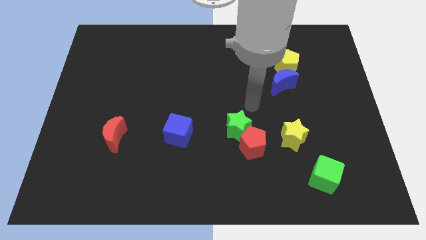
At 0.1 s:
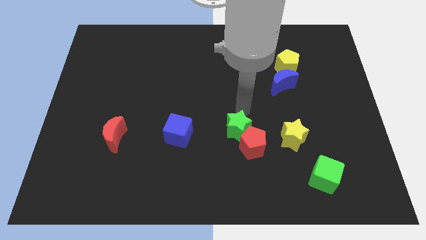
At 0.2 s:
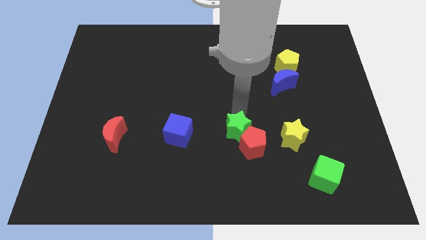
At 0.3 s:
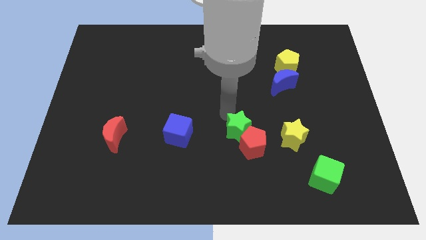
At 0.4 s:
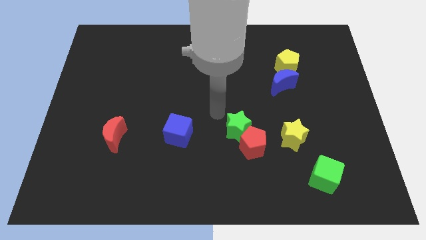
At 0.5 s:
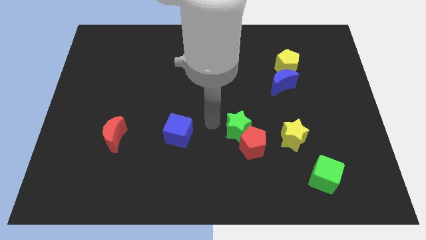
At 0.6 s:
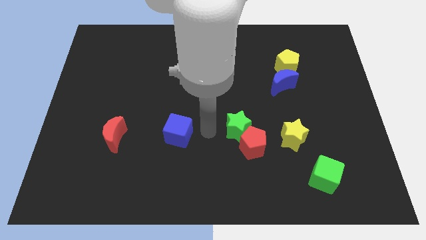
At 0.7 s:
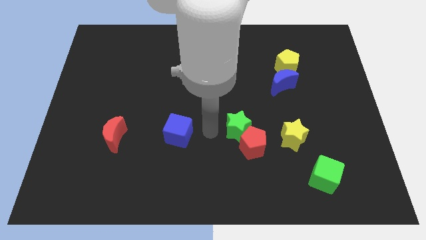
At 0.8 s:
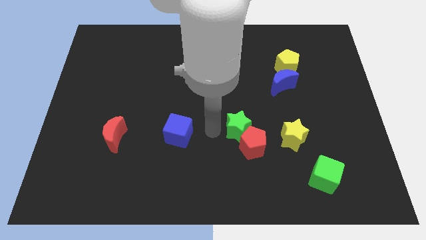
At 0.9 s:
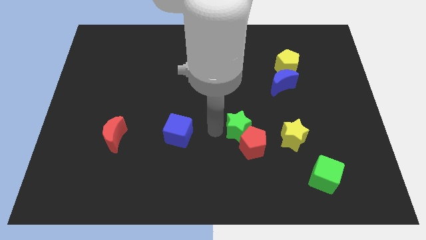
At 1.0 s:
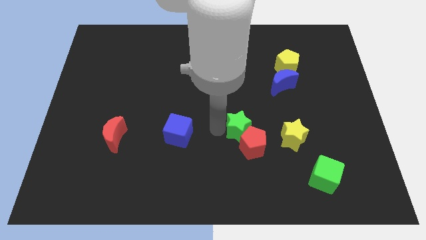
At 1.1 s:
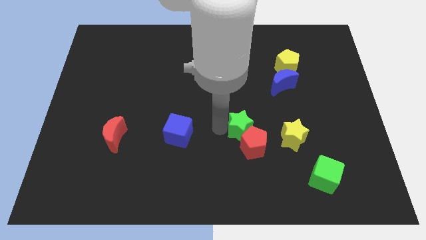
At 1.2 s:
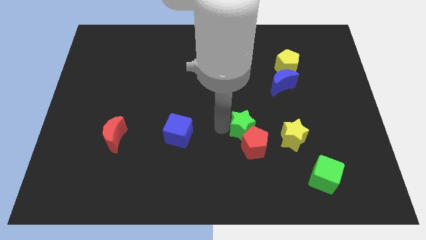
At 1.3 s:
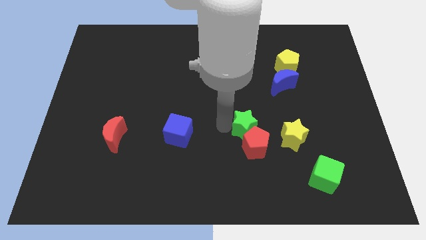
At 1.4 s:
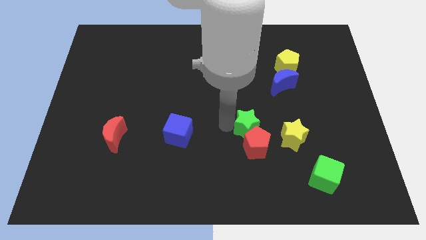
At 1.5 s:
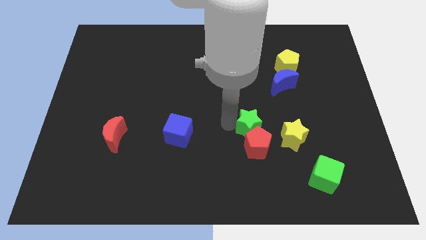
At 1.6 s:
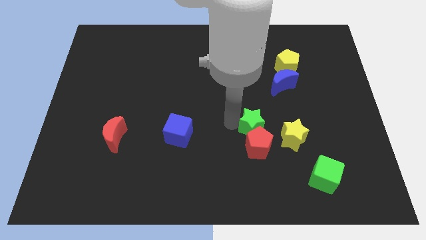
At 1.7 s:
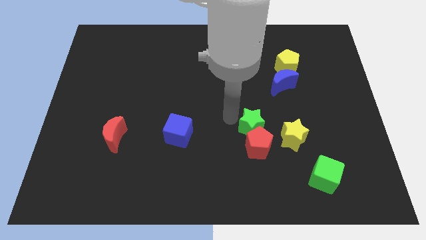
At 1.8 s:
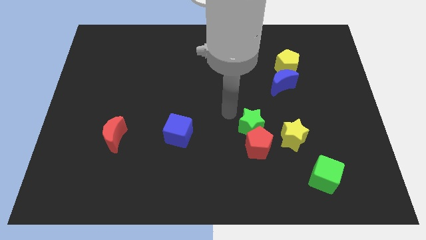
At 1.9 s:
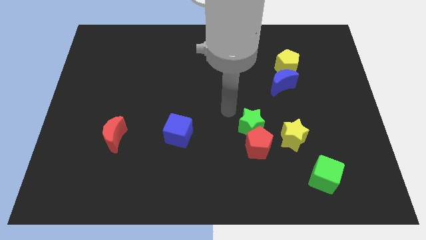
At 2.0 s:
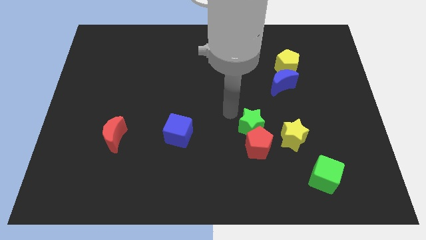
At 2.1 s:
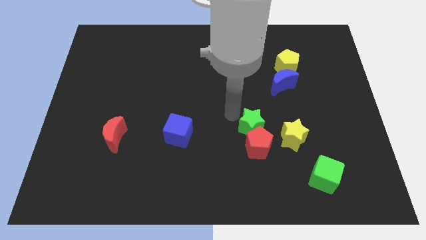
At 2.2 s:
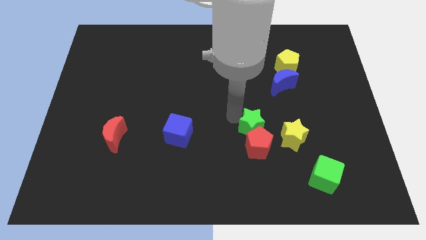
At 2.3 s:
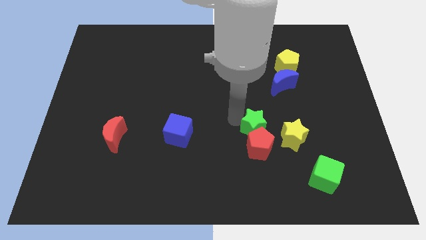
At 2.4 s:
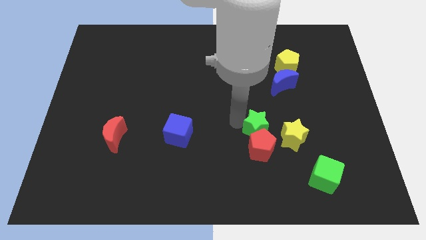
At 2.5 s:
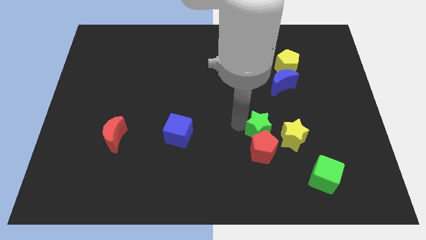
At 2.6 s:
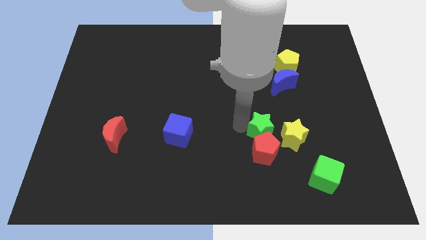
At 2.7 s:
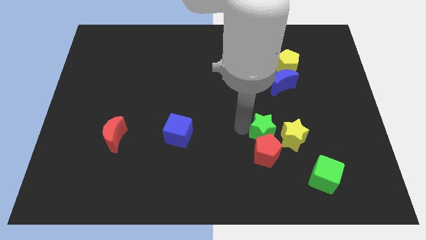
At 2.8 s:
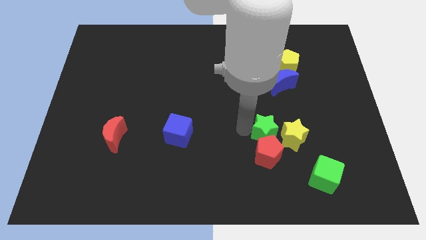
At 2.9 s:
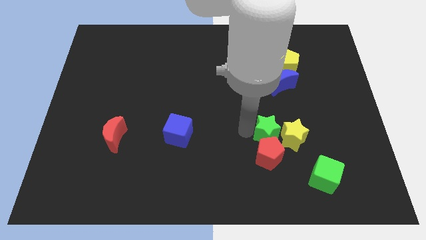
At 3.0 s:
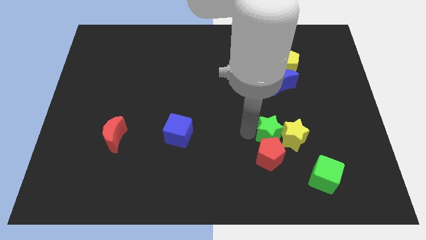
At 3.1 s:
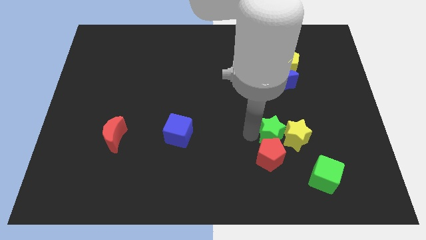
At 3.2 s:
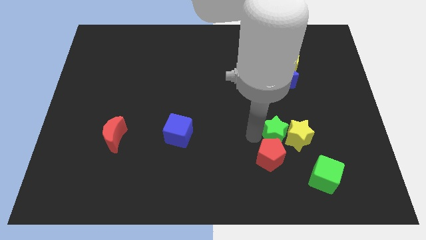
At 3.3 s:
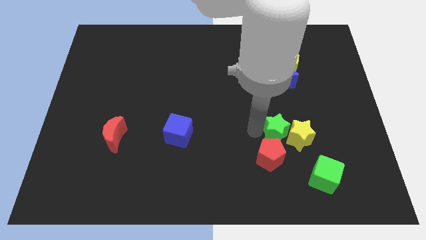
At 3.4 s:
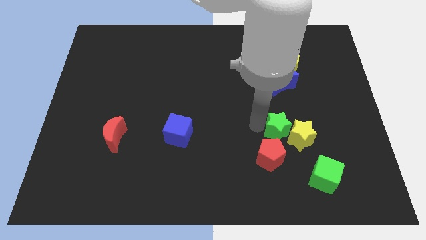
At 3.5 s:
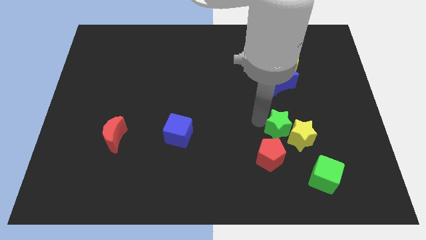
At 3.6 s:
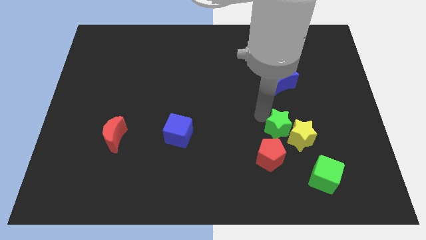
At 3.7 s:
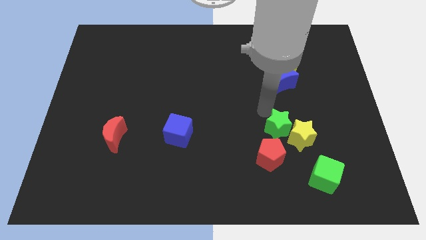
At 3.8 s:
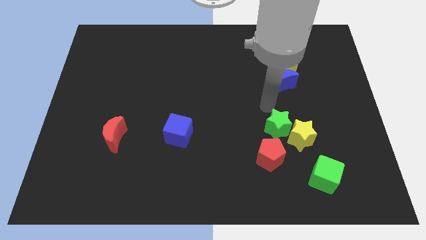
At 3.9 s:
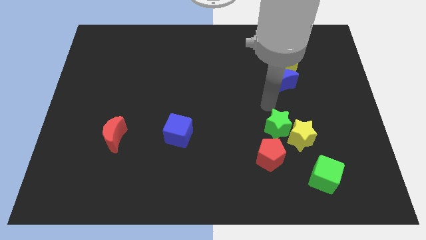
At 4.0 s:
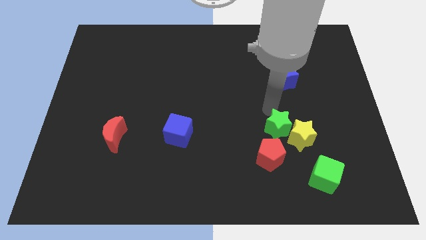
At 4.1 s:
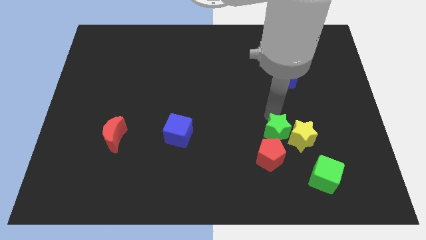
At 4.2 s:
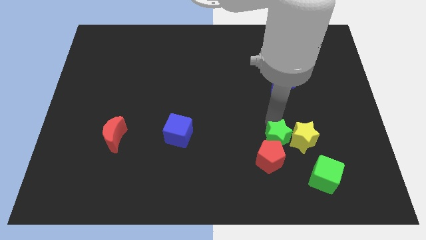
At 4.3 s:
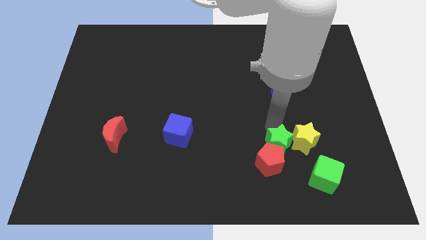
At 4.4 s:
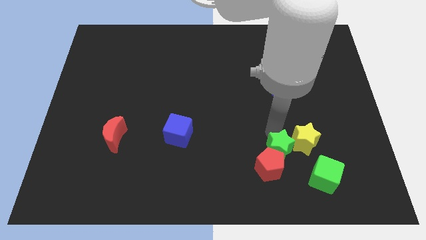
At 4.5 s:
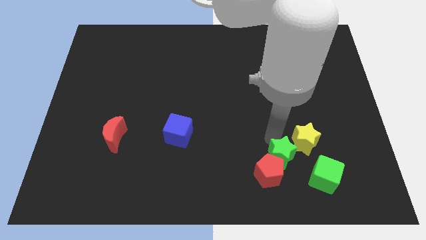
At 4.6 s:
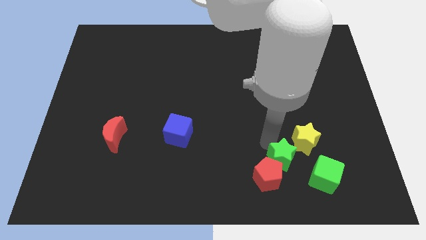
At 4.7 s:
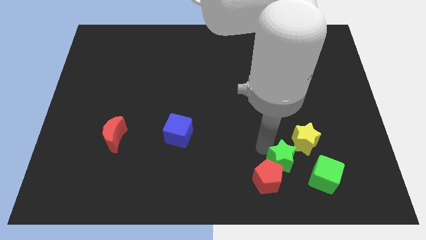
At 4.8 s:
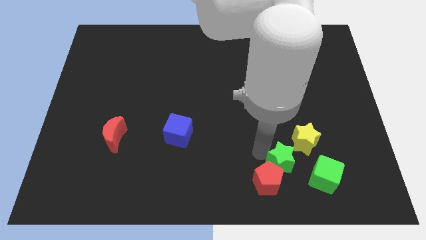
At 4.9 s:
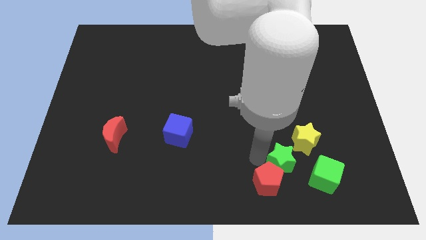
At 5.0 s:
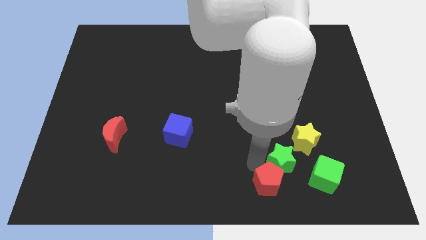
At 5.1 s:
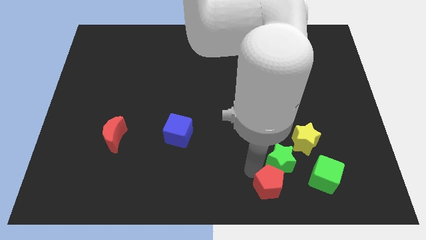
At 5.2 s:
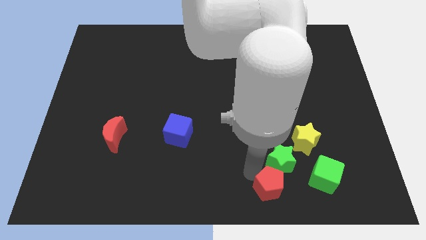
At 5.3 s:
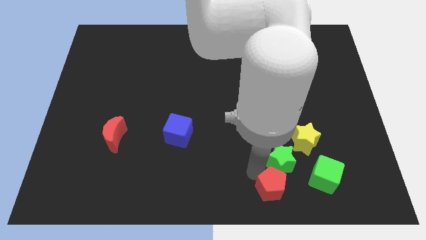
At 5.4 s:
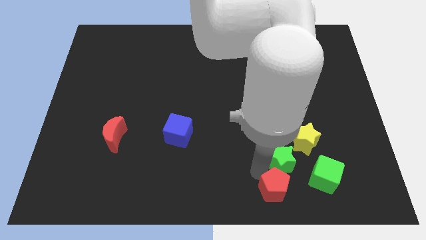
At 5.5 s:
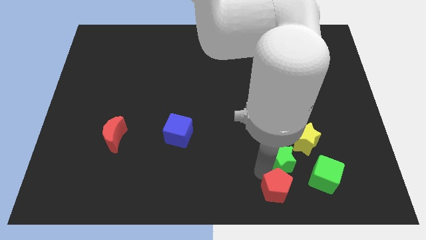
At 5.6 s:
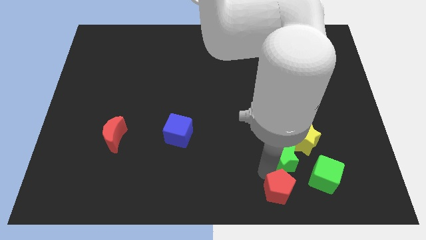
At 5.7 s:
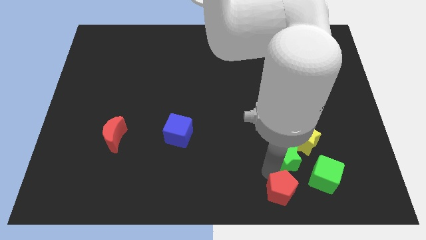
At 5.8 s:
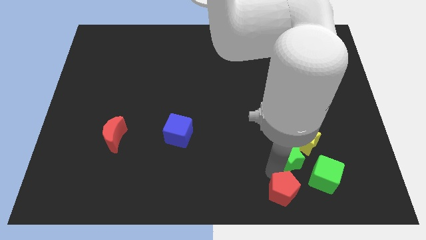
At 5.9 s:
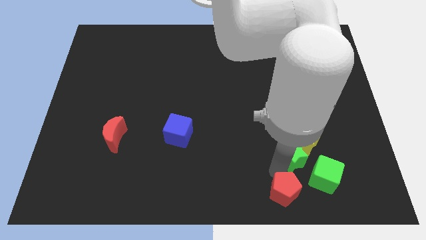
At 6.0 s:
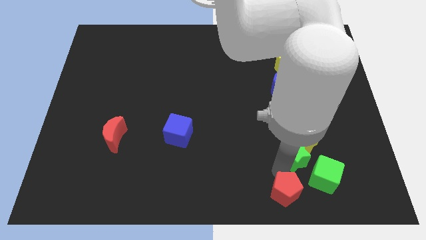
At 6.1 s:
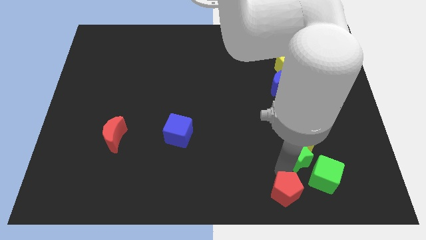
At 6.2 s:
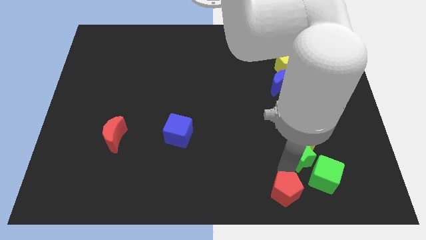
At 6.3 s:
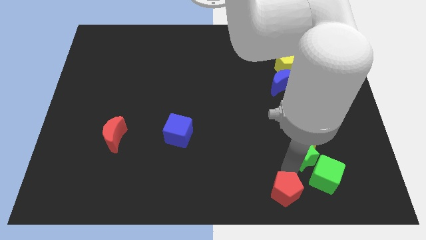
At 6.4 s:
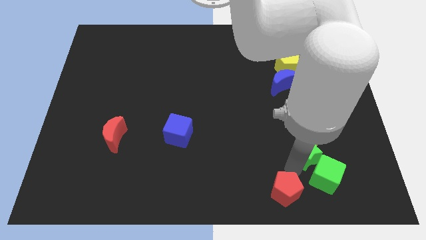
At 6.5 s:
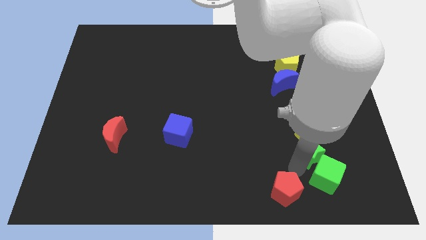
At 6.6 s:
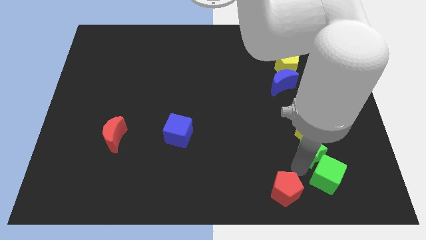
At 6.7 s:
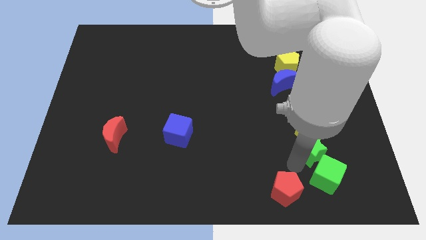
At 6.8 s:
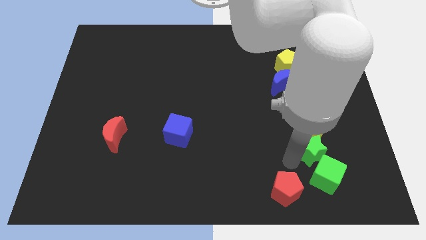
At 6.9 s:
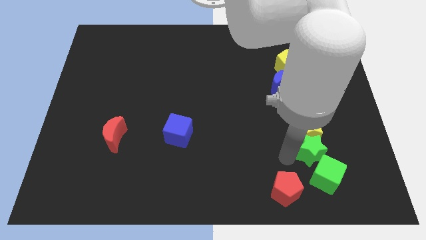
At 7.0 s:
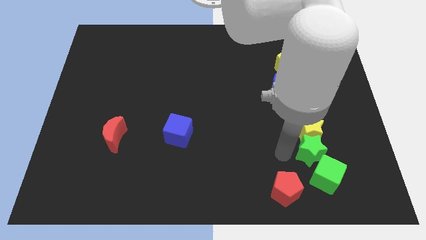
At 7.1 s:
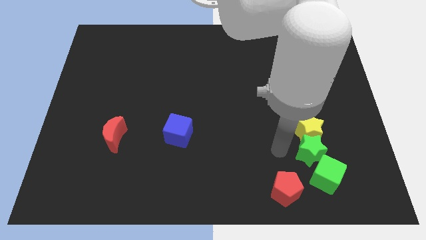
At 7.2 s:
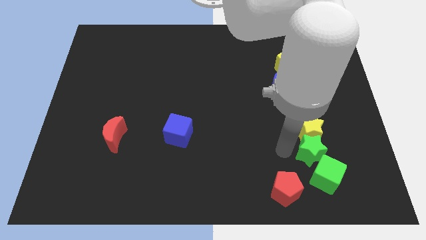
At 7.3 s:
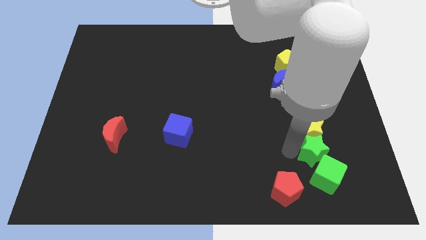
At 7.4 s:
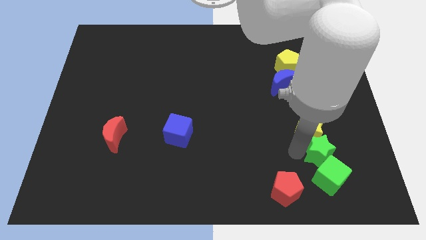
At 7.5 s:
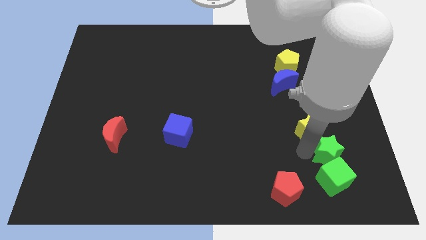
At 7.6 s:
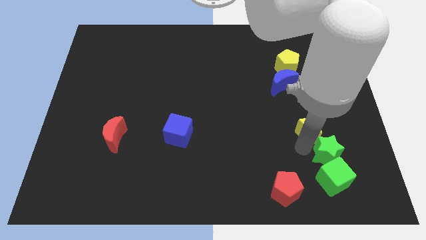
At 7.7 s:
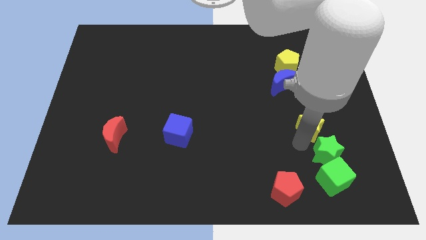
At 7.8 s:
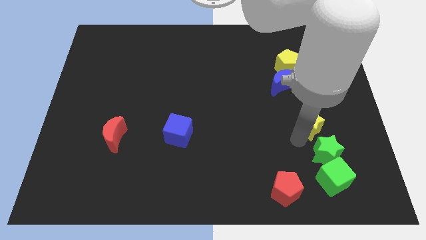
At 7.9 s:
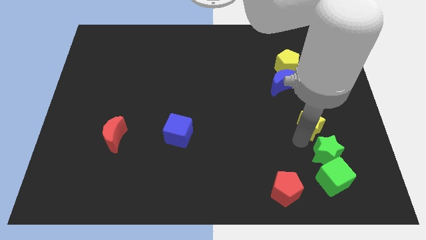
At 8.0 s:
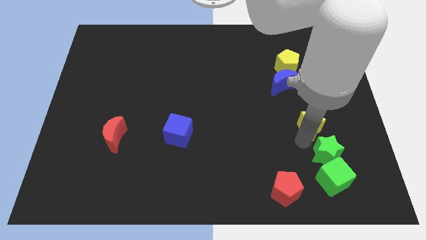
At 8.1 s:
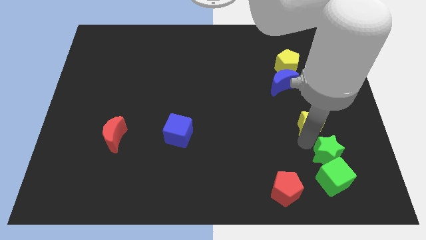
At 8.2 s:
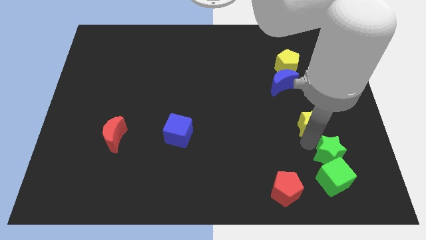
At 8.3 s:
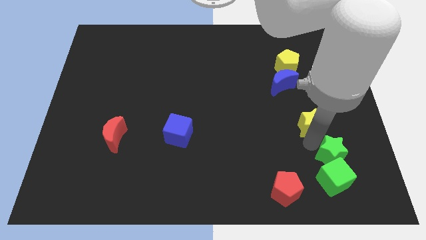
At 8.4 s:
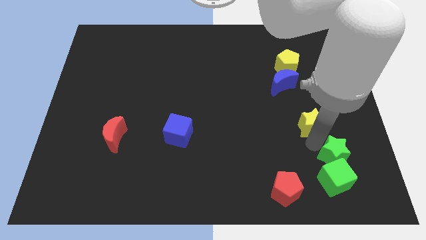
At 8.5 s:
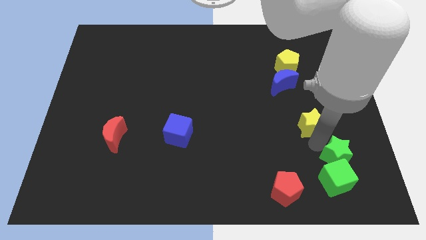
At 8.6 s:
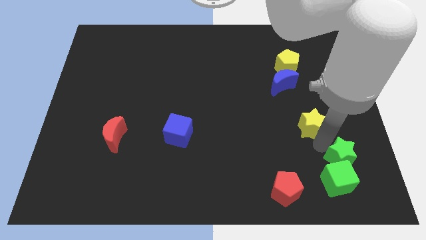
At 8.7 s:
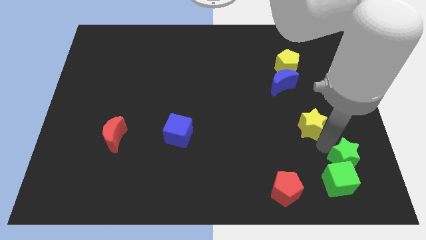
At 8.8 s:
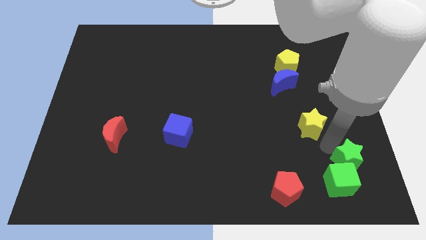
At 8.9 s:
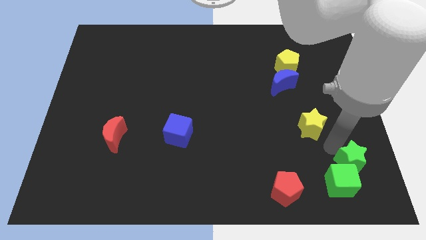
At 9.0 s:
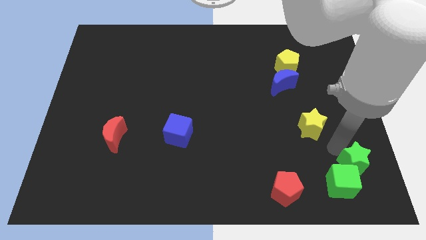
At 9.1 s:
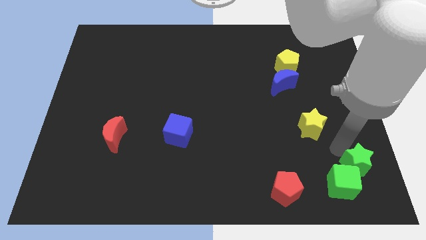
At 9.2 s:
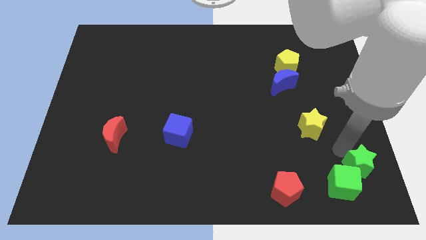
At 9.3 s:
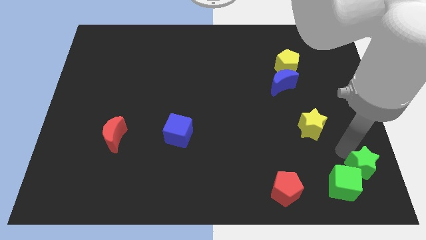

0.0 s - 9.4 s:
push the green star to the lower right corner
